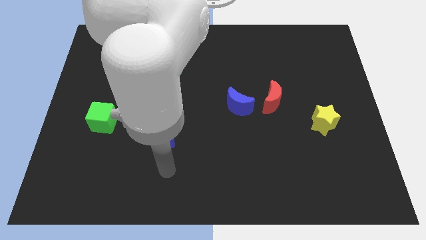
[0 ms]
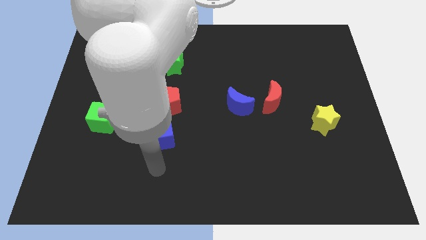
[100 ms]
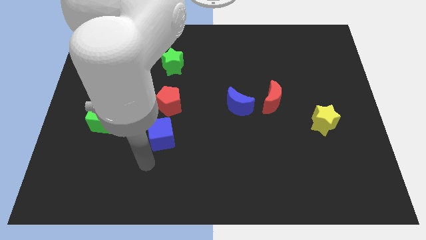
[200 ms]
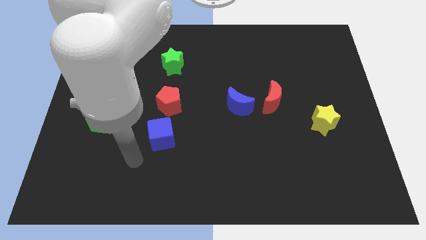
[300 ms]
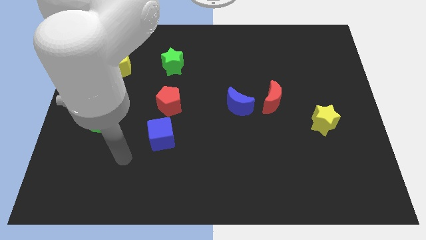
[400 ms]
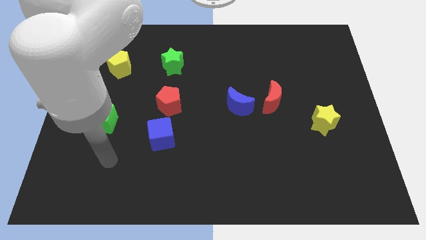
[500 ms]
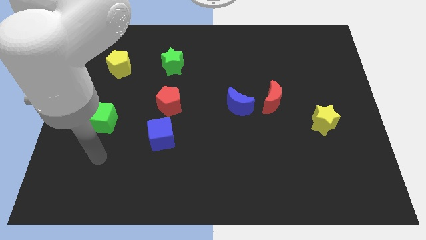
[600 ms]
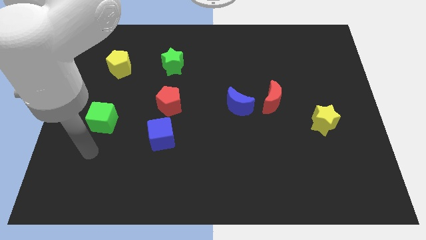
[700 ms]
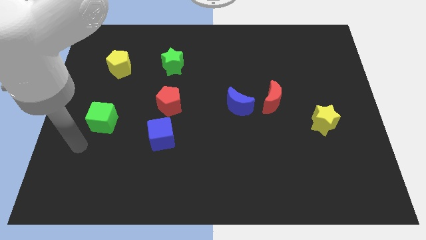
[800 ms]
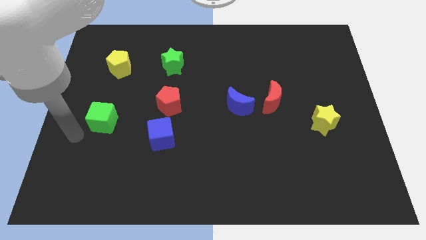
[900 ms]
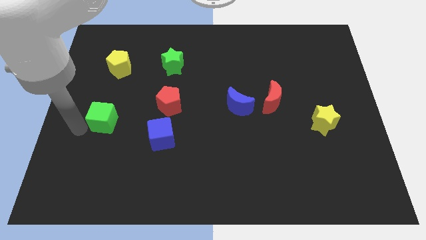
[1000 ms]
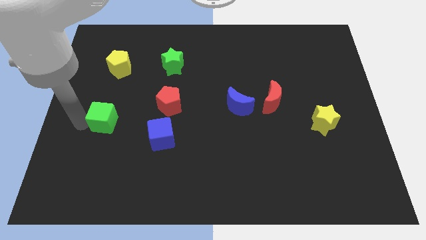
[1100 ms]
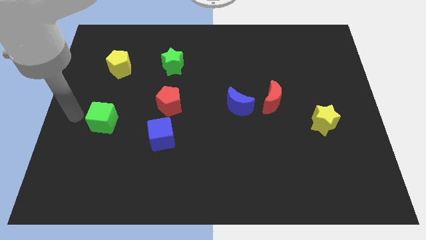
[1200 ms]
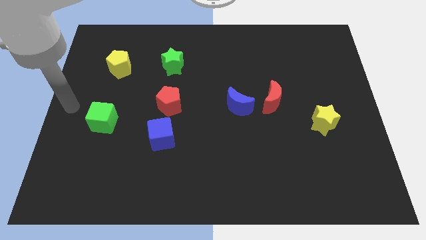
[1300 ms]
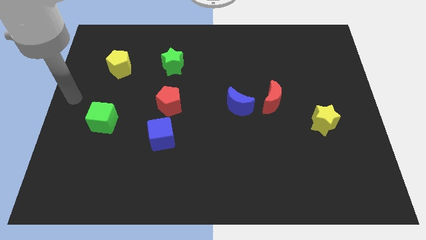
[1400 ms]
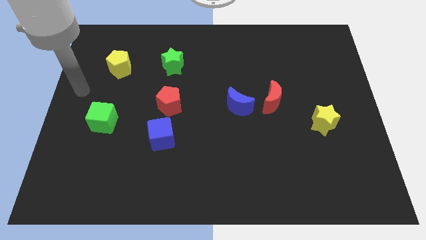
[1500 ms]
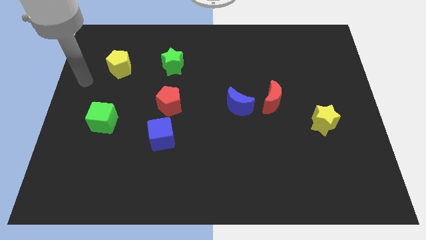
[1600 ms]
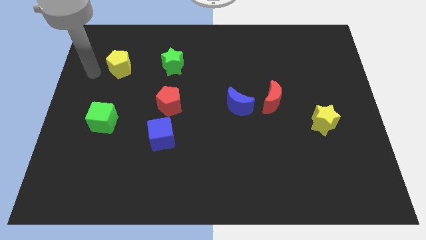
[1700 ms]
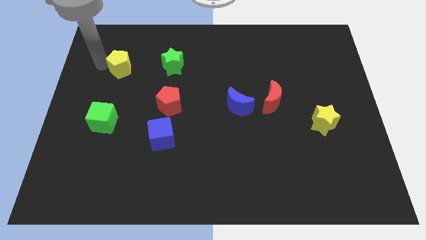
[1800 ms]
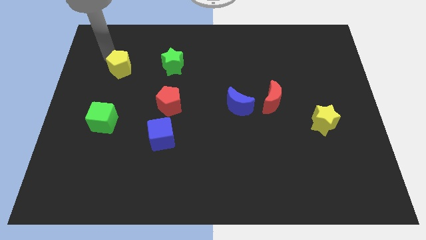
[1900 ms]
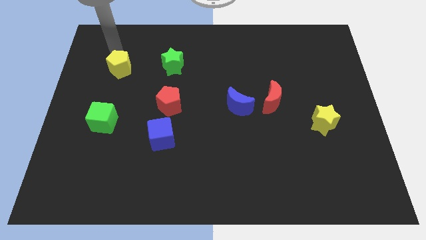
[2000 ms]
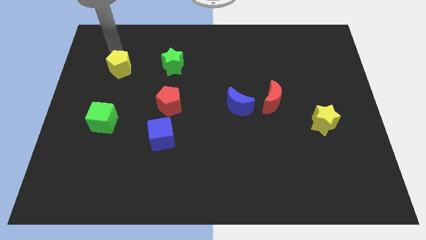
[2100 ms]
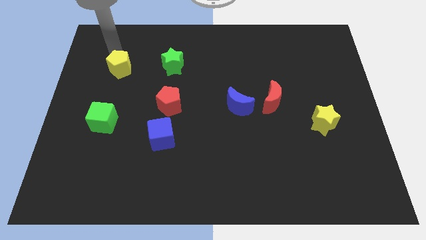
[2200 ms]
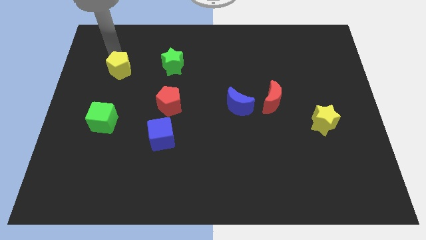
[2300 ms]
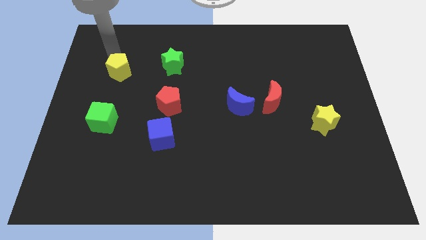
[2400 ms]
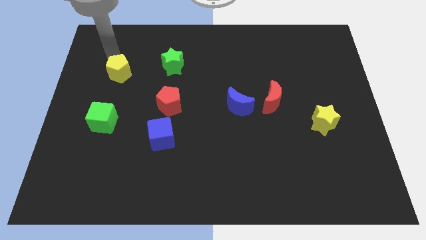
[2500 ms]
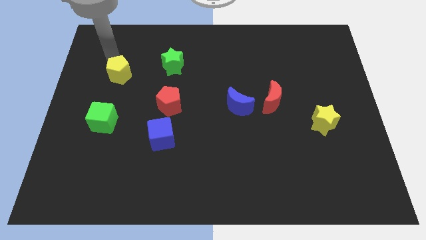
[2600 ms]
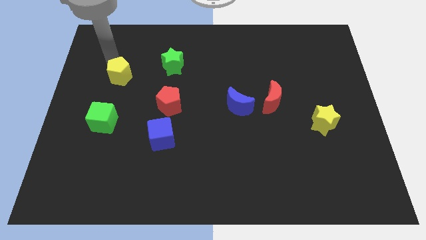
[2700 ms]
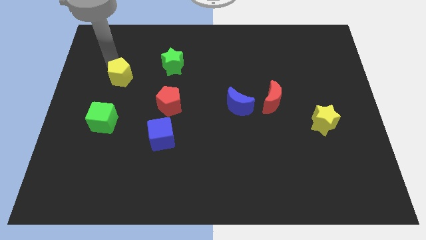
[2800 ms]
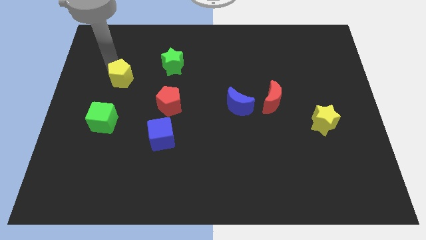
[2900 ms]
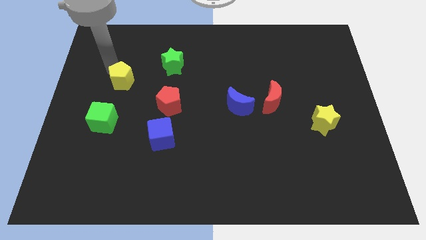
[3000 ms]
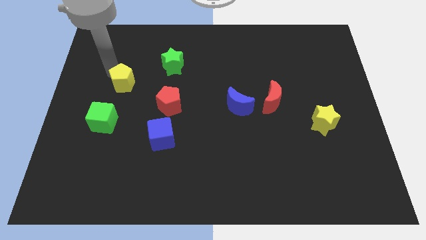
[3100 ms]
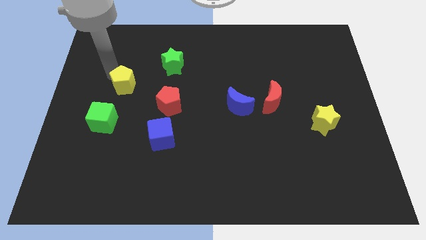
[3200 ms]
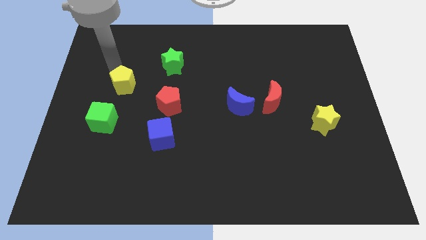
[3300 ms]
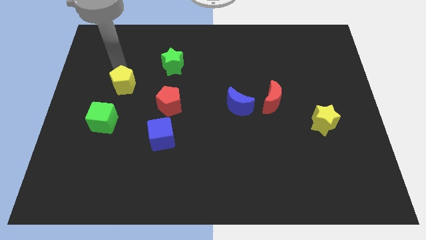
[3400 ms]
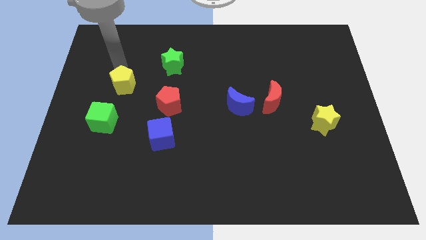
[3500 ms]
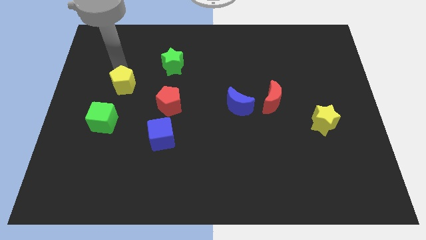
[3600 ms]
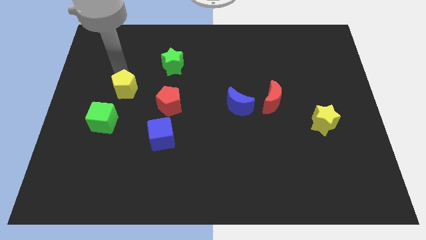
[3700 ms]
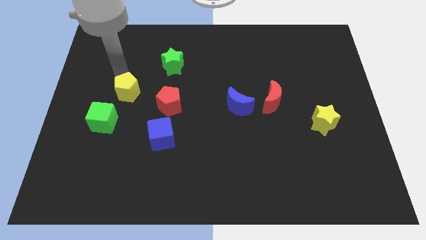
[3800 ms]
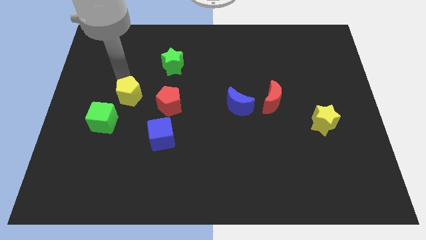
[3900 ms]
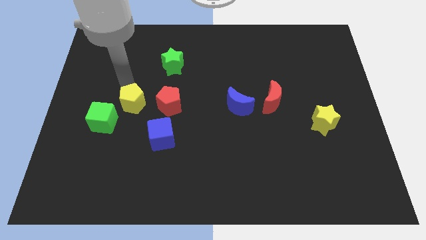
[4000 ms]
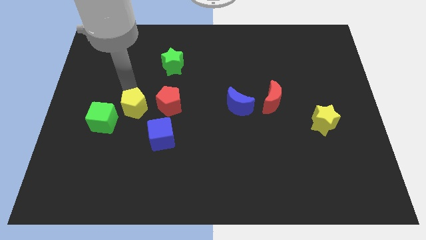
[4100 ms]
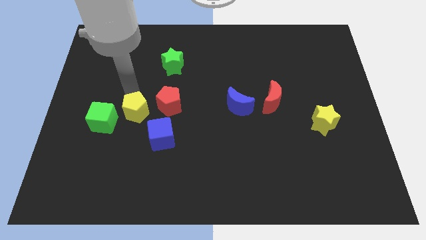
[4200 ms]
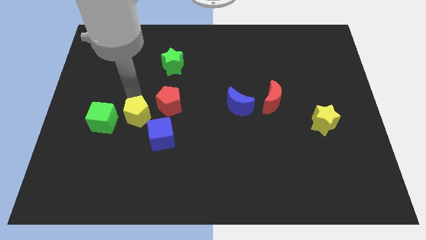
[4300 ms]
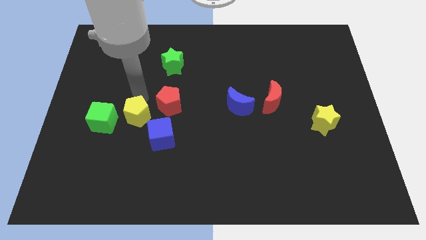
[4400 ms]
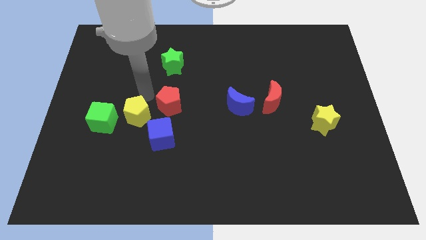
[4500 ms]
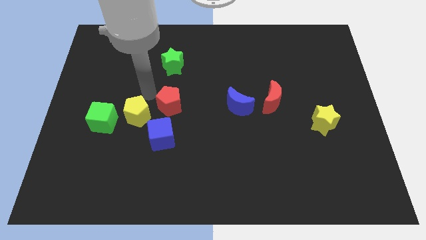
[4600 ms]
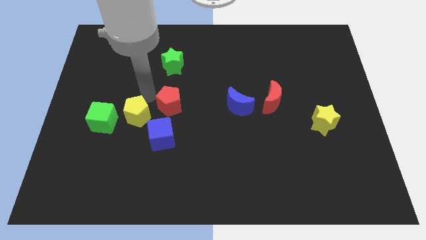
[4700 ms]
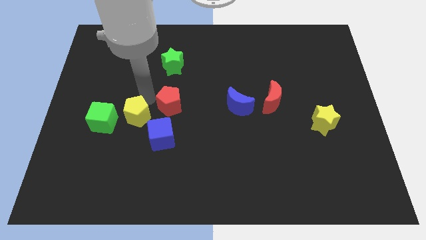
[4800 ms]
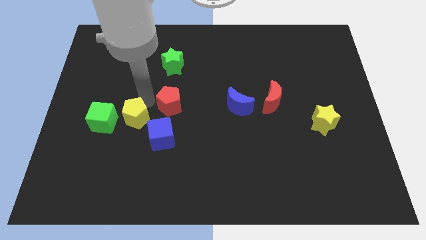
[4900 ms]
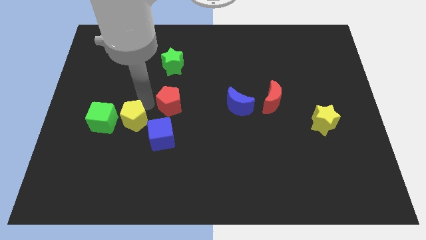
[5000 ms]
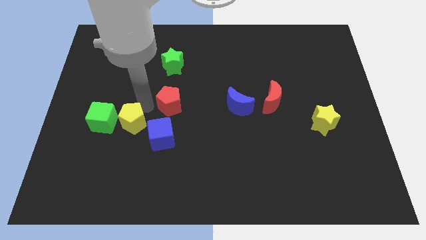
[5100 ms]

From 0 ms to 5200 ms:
push the yellow pentagon diagonally down and to the right of the green cube
